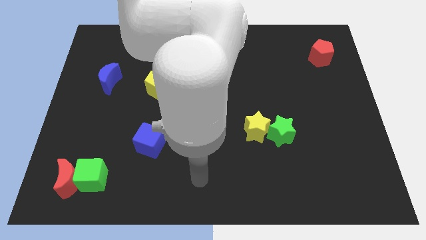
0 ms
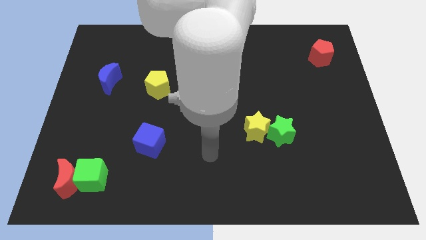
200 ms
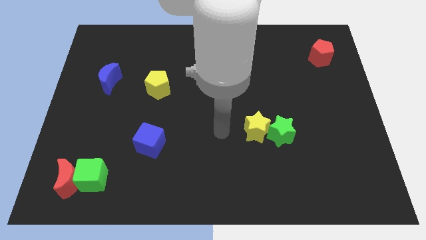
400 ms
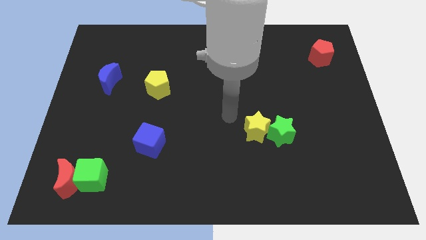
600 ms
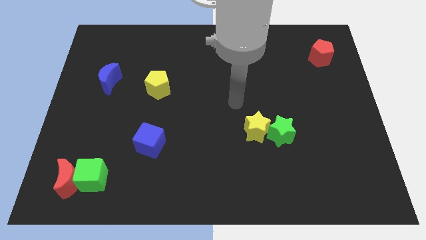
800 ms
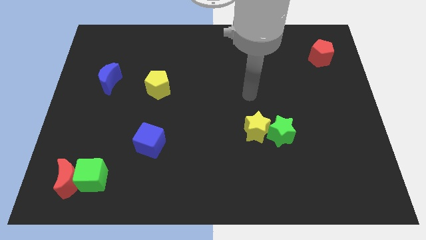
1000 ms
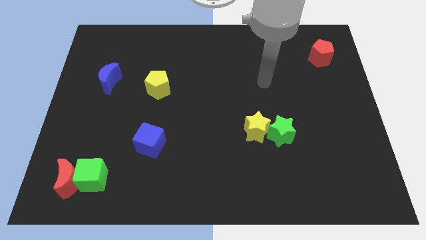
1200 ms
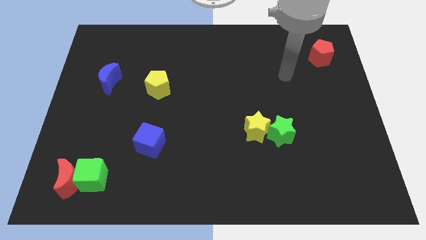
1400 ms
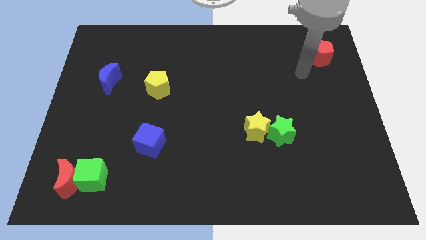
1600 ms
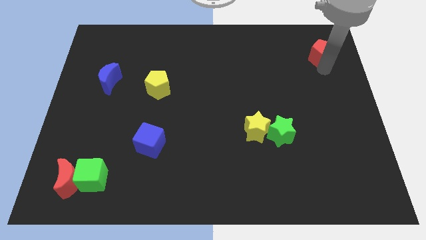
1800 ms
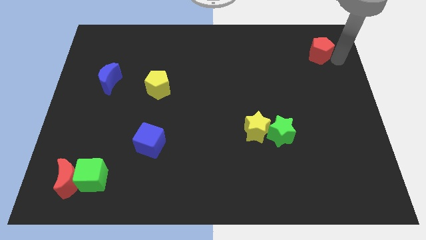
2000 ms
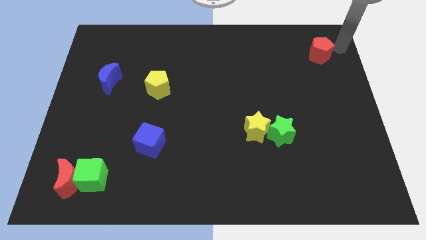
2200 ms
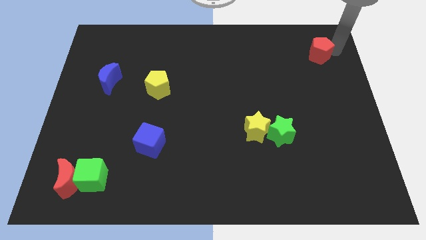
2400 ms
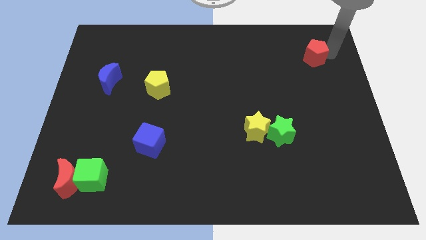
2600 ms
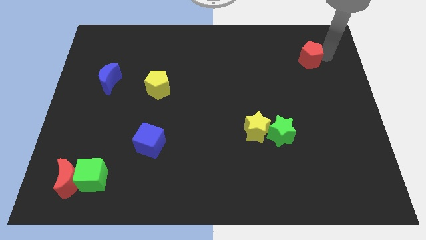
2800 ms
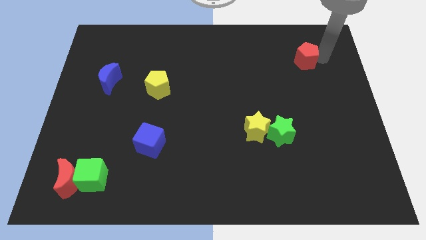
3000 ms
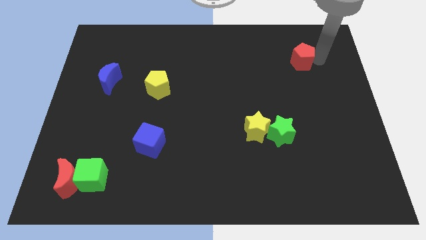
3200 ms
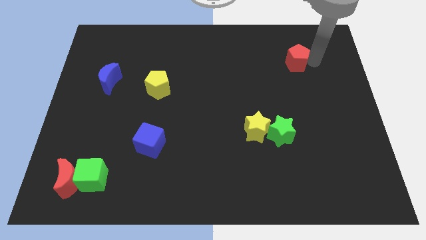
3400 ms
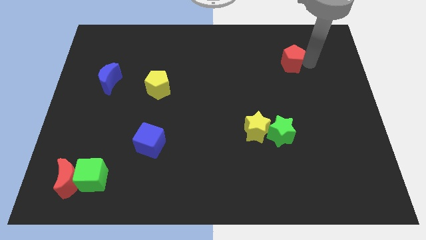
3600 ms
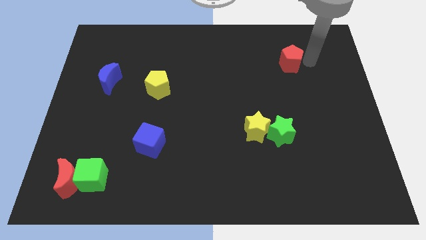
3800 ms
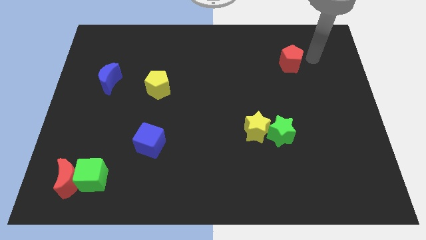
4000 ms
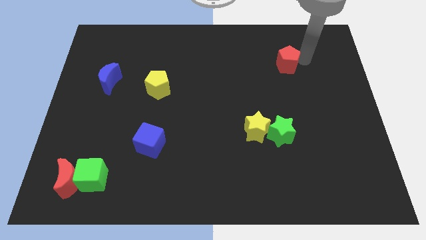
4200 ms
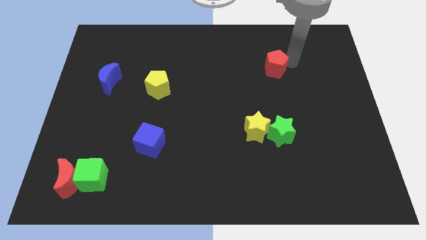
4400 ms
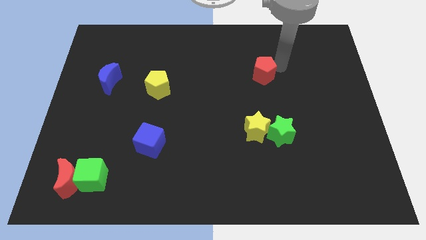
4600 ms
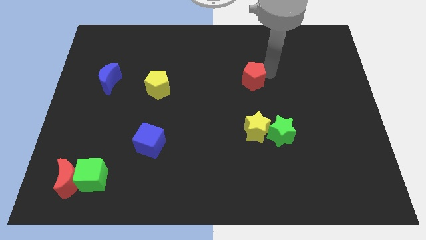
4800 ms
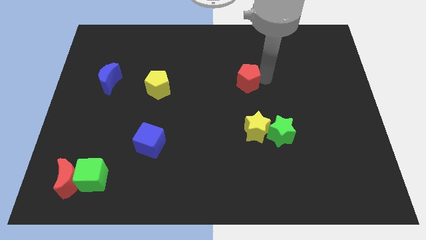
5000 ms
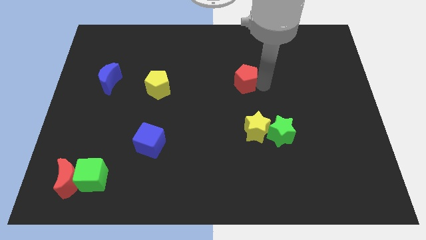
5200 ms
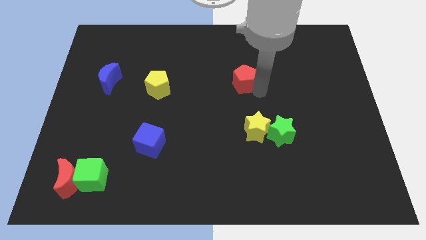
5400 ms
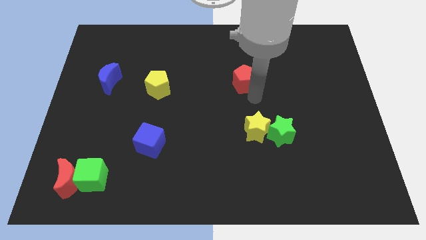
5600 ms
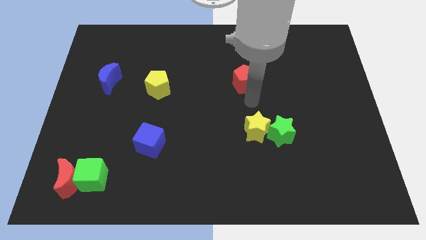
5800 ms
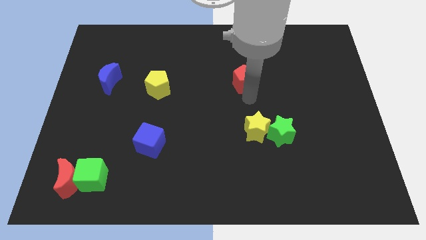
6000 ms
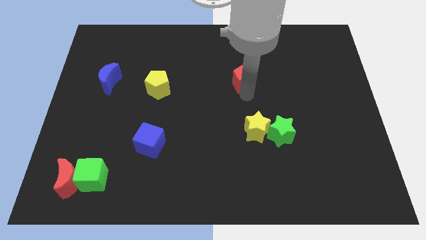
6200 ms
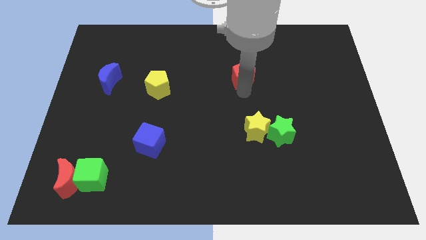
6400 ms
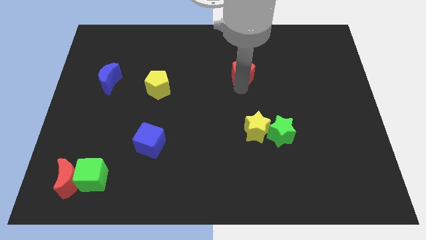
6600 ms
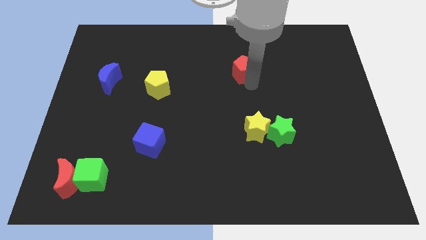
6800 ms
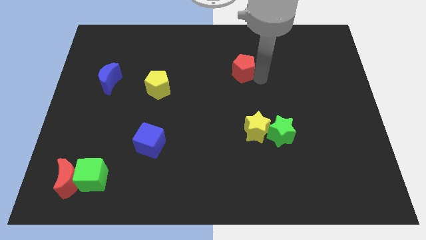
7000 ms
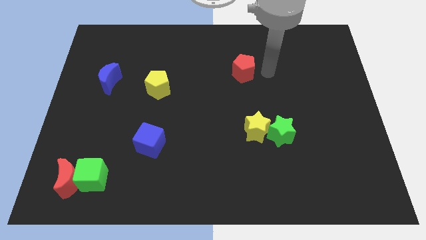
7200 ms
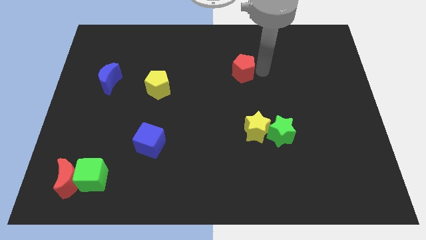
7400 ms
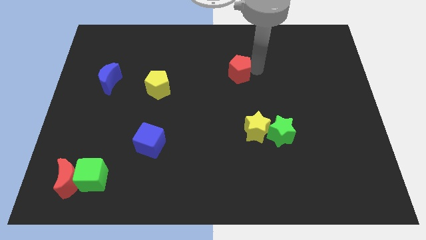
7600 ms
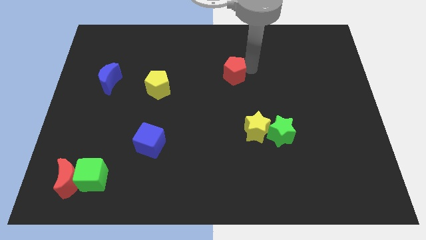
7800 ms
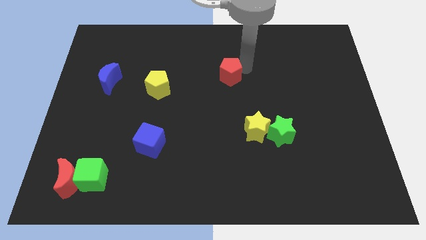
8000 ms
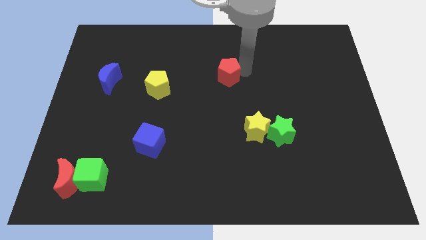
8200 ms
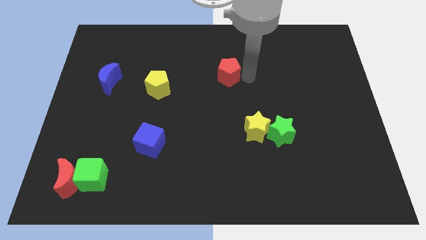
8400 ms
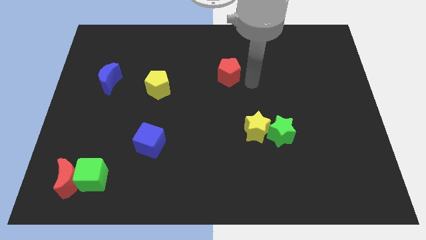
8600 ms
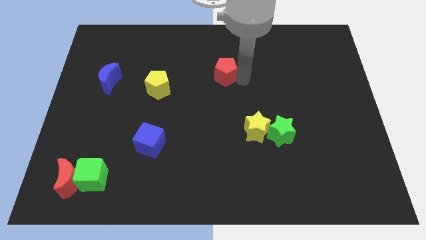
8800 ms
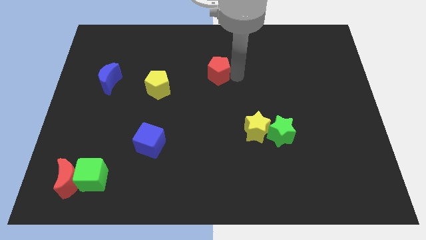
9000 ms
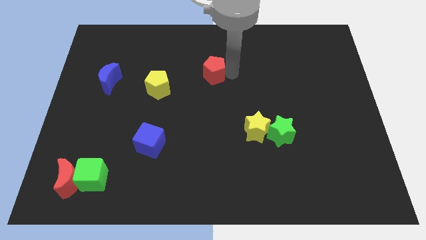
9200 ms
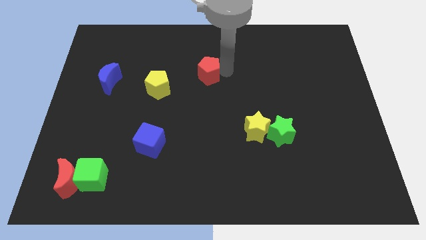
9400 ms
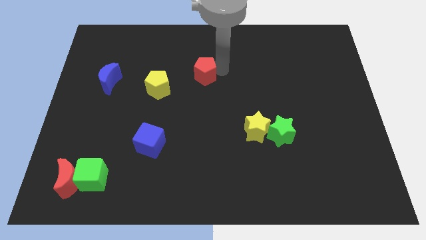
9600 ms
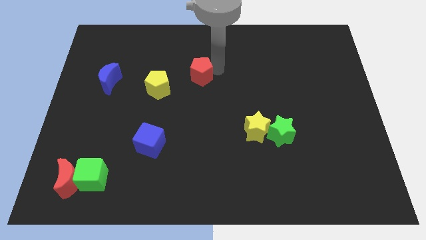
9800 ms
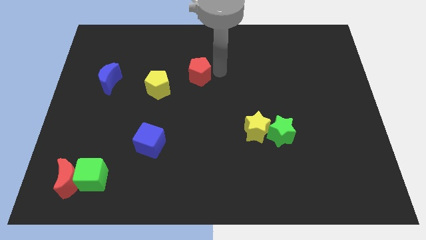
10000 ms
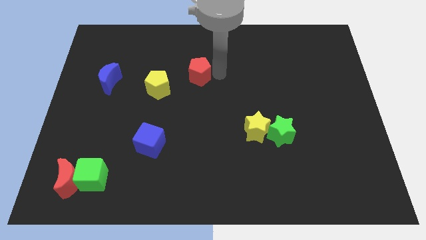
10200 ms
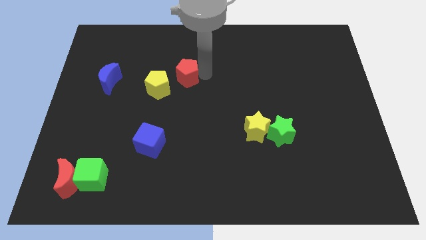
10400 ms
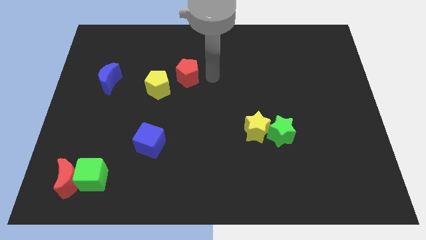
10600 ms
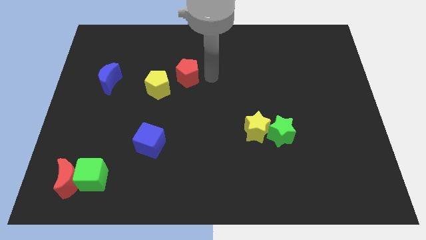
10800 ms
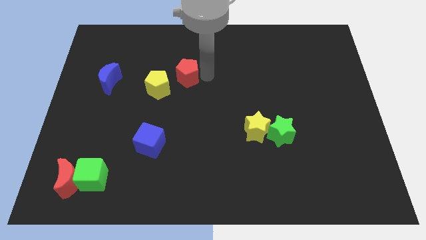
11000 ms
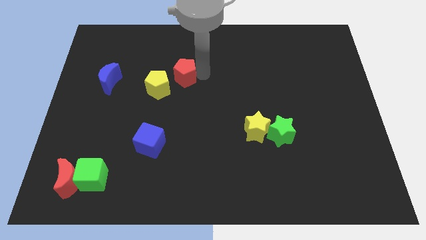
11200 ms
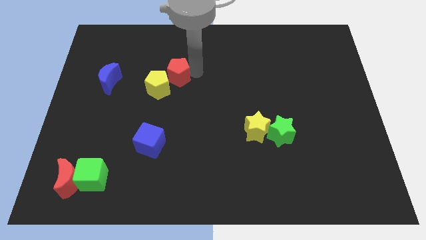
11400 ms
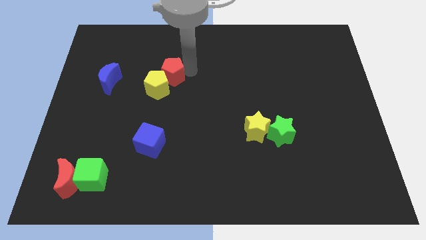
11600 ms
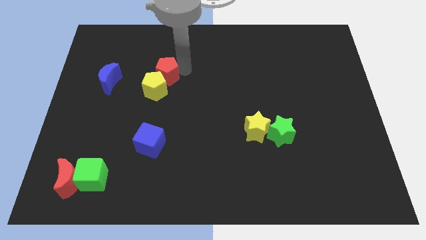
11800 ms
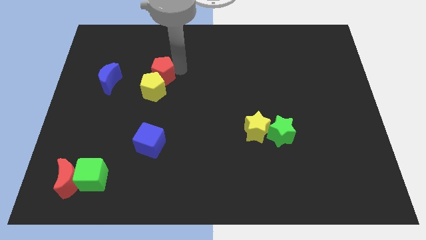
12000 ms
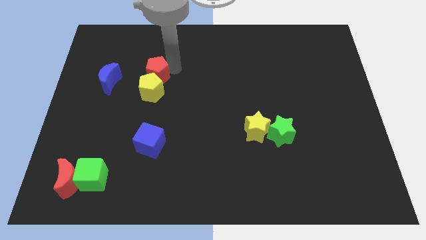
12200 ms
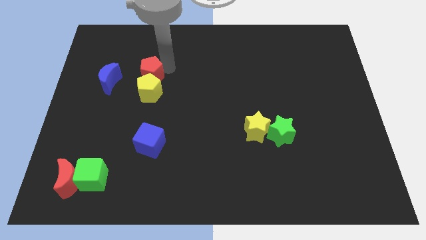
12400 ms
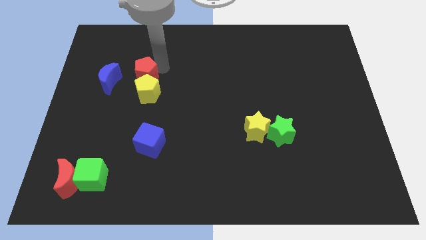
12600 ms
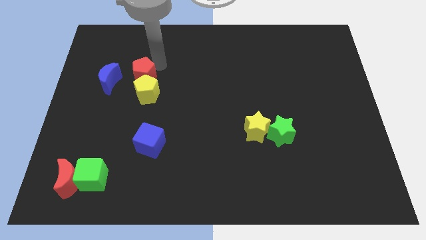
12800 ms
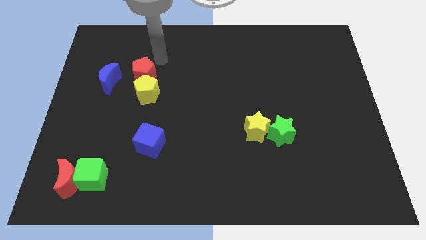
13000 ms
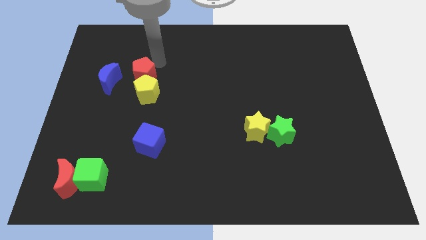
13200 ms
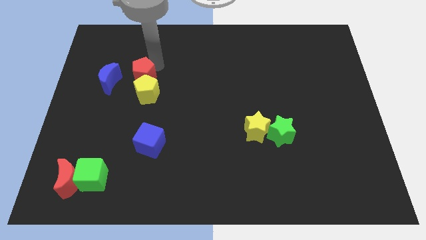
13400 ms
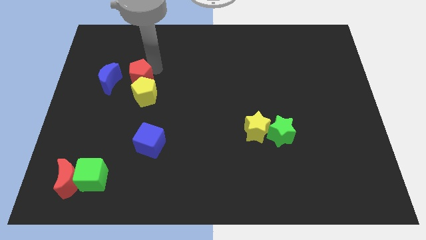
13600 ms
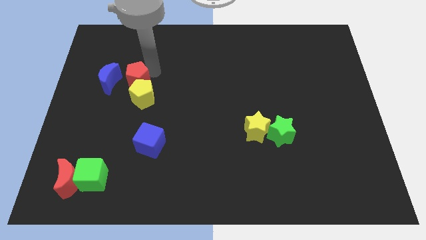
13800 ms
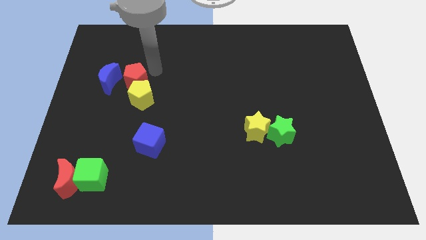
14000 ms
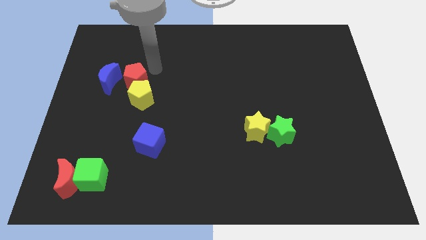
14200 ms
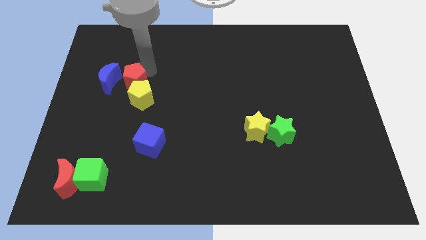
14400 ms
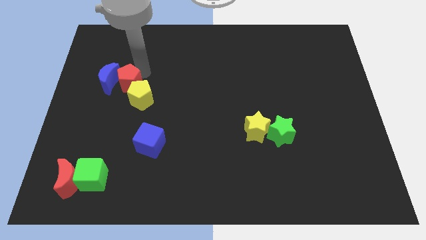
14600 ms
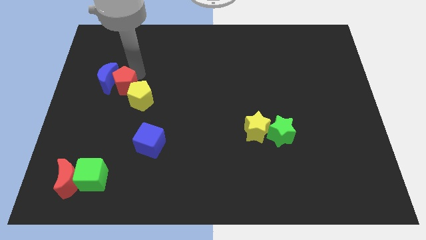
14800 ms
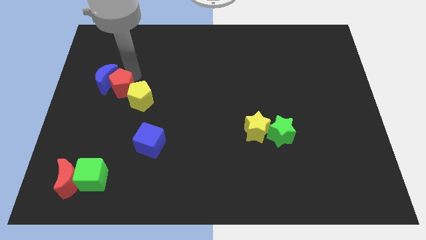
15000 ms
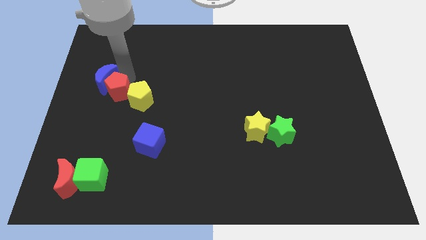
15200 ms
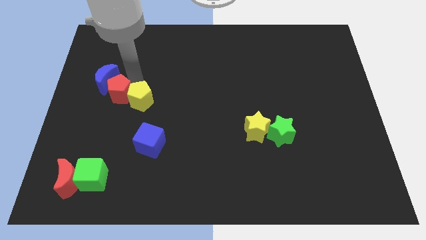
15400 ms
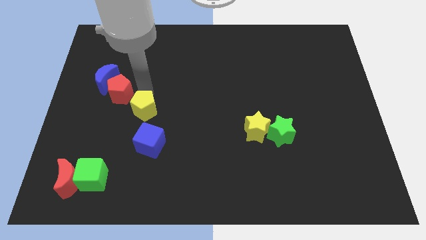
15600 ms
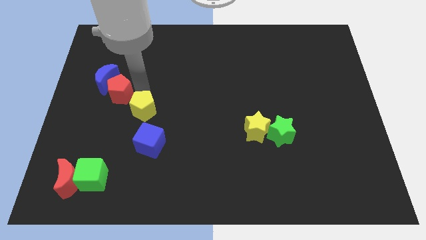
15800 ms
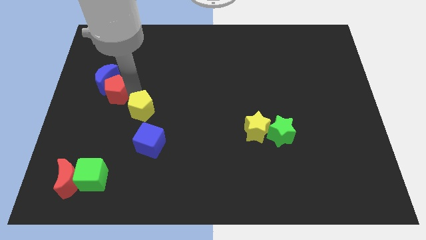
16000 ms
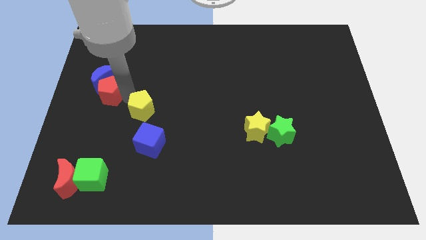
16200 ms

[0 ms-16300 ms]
slide the red pentagon to the left side of the board
